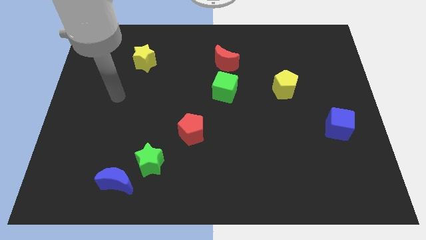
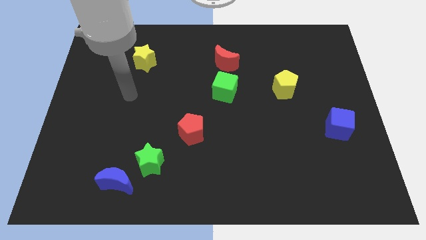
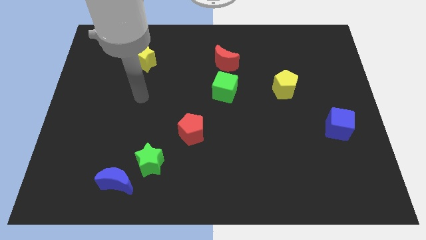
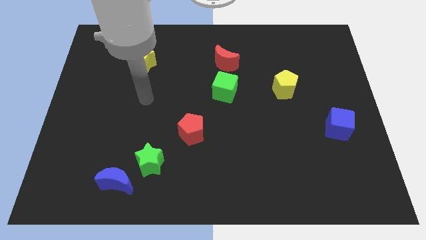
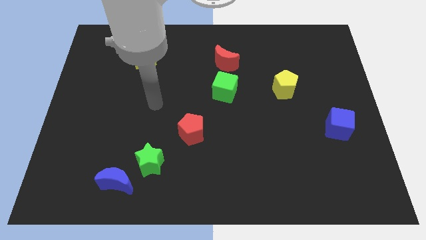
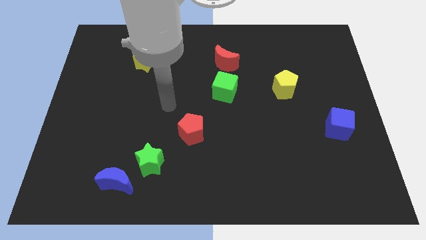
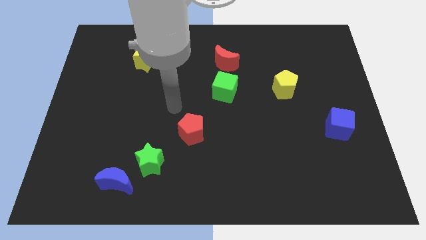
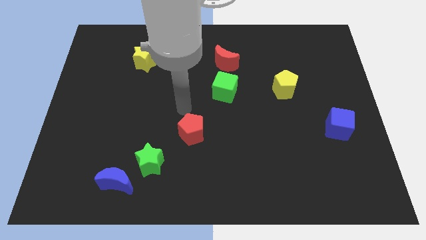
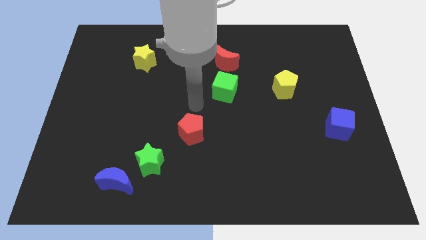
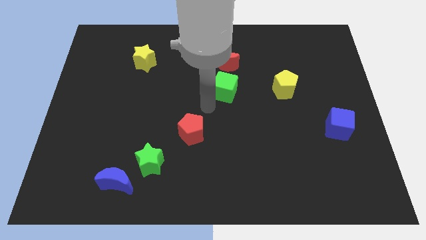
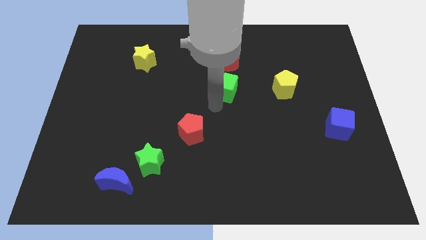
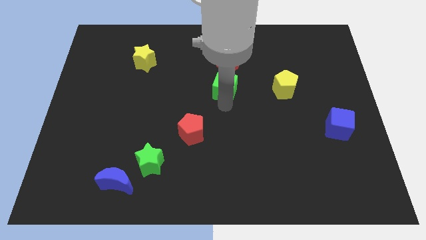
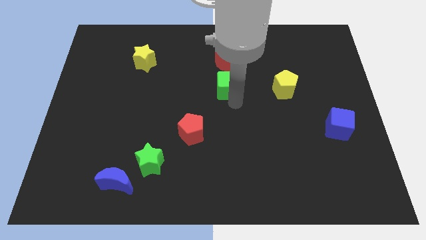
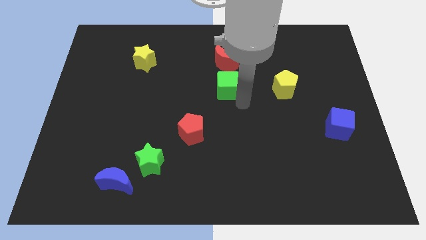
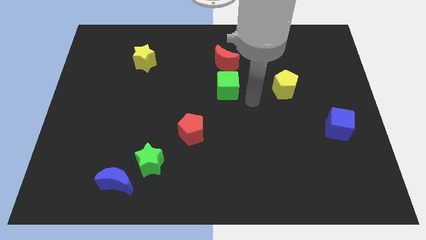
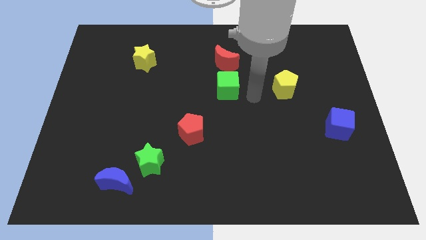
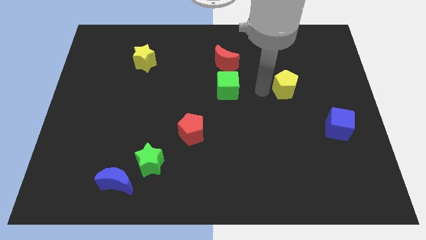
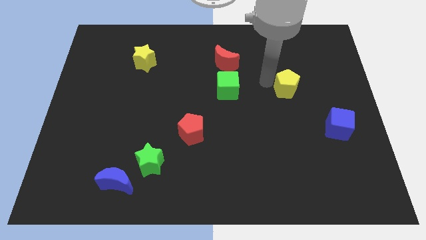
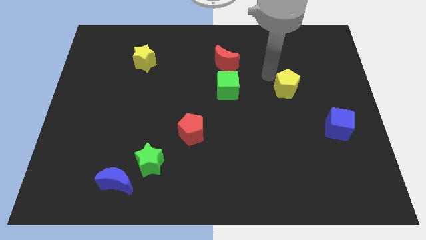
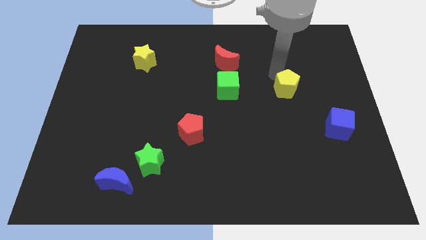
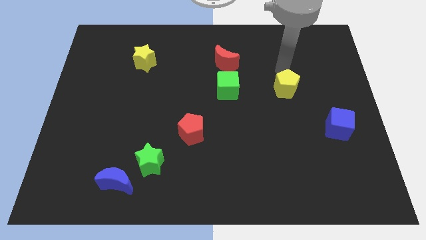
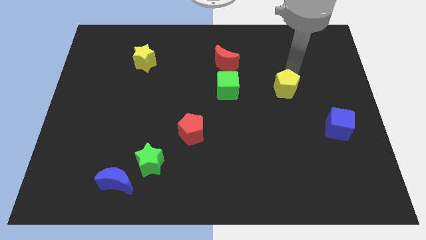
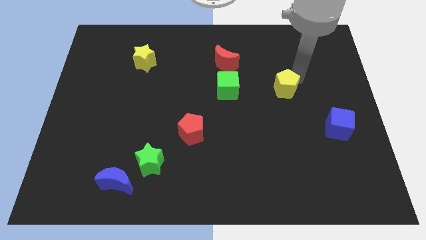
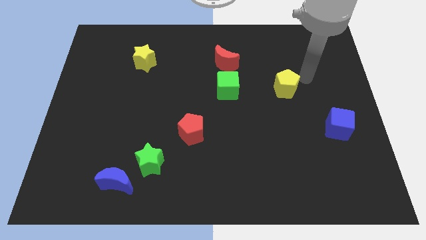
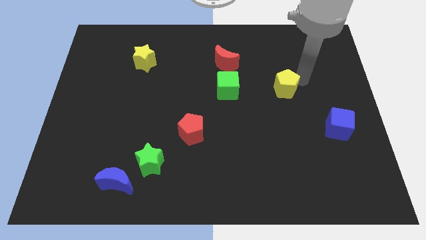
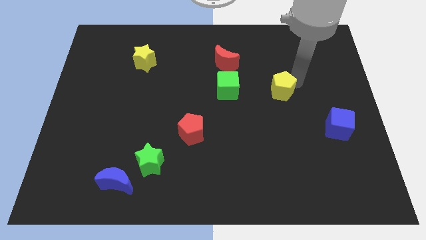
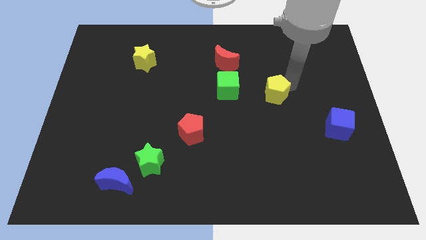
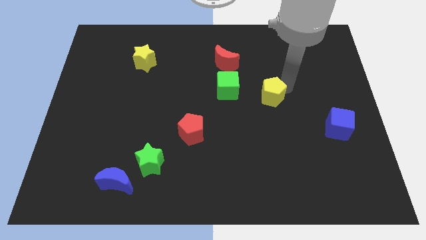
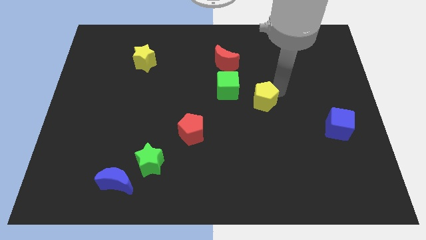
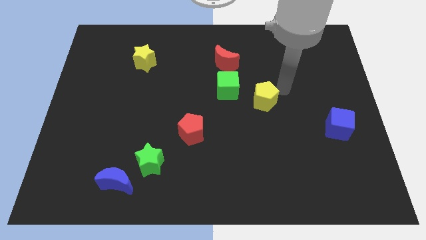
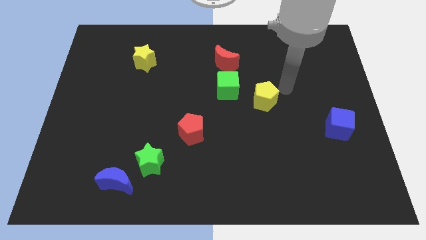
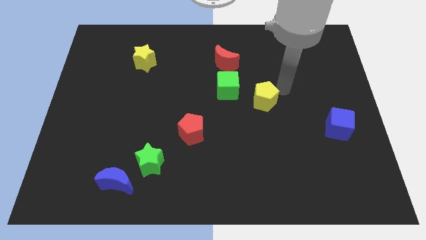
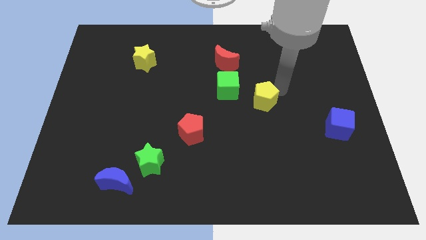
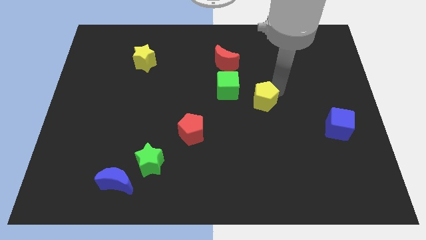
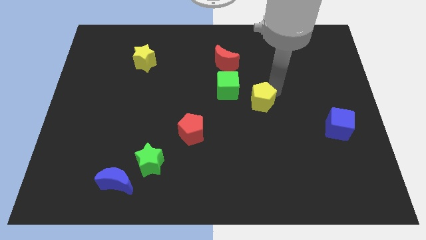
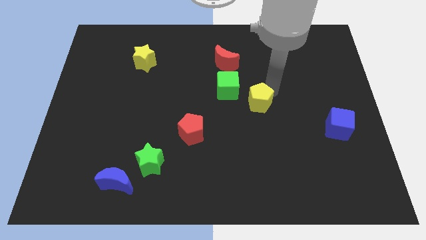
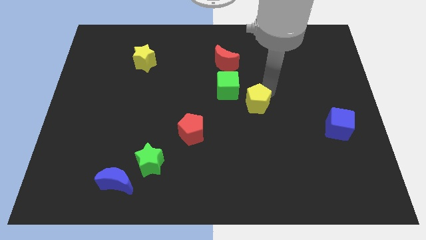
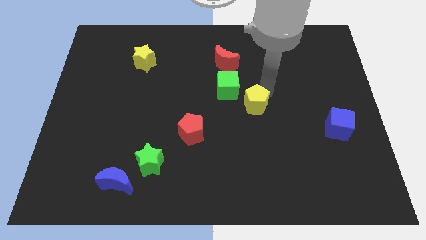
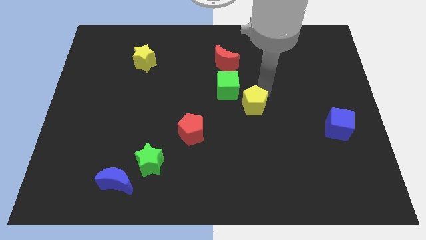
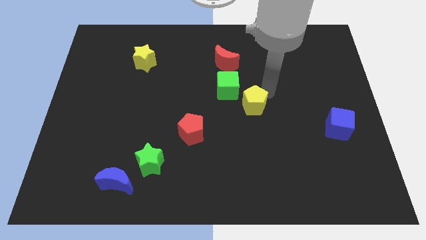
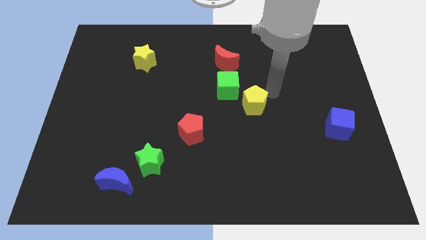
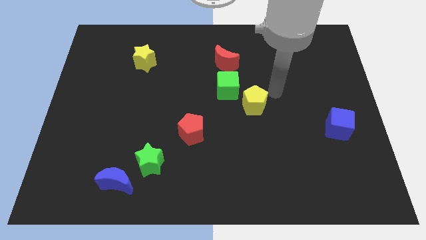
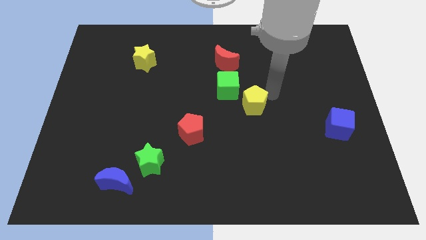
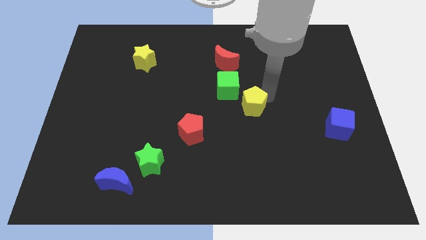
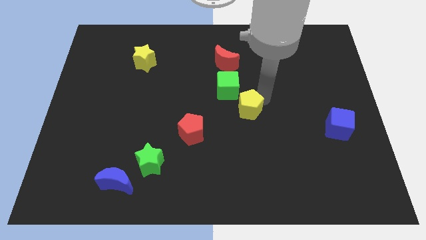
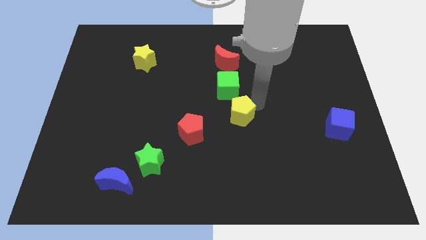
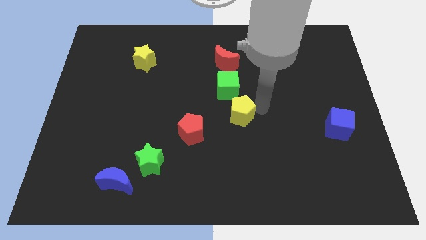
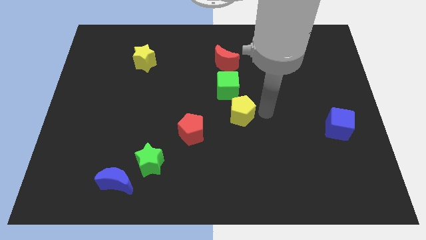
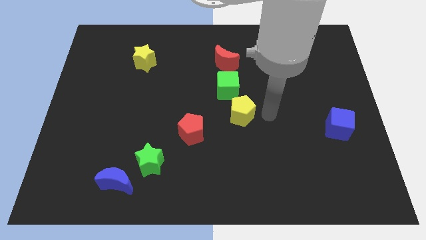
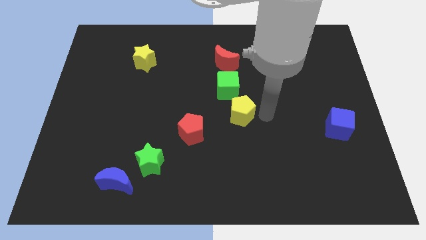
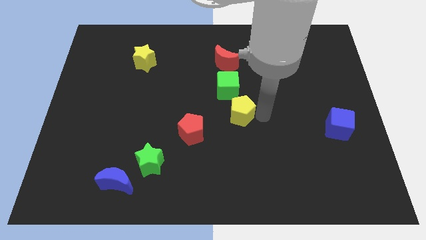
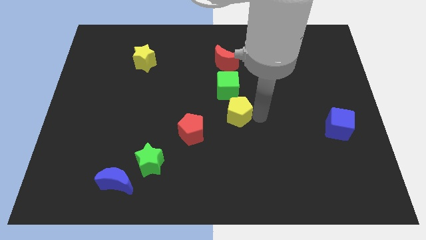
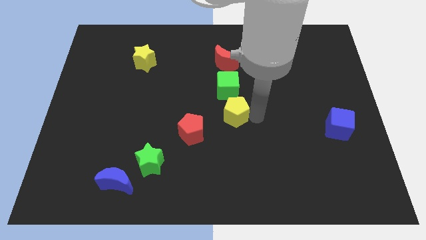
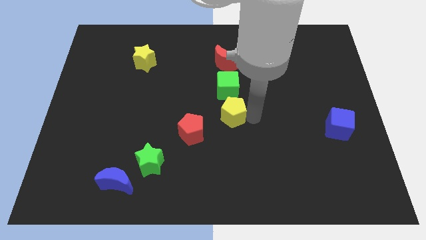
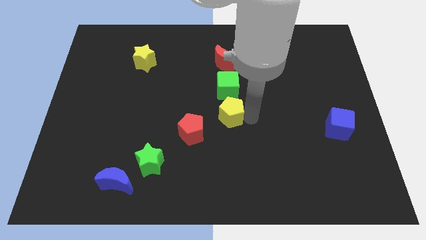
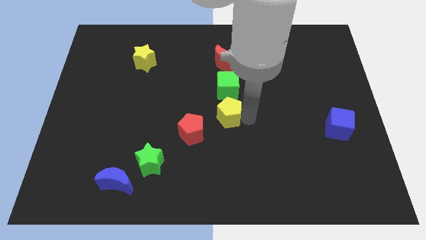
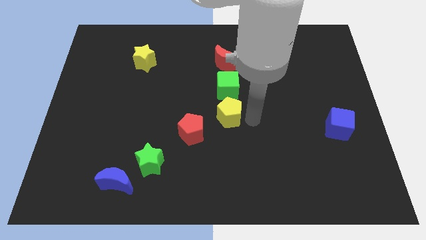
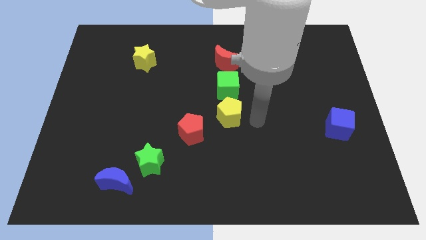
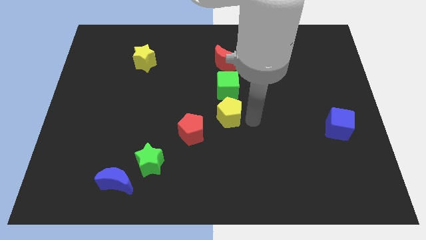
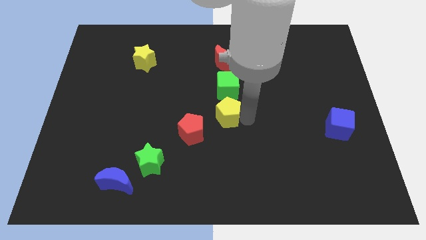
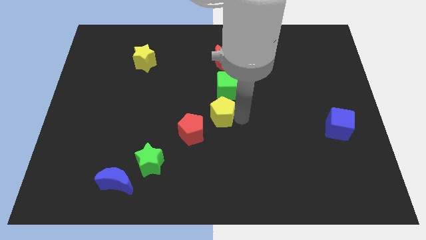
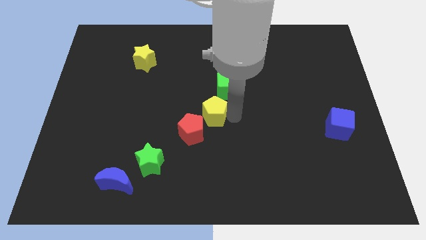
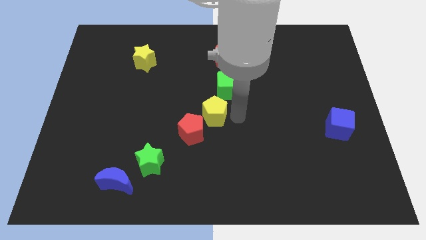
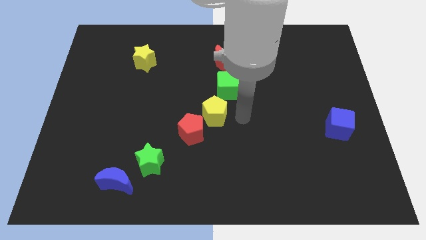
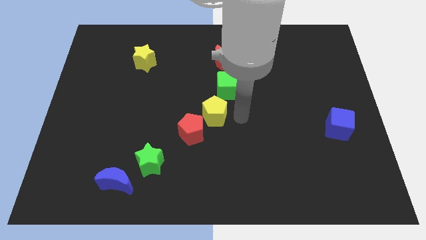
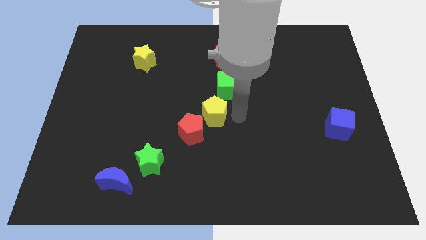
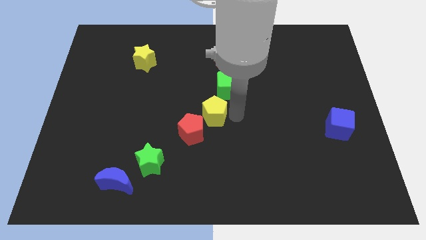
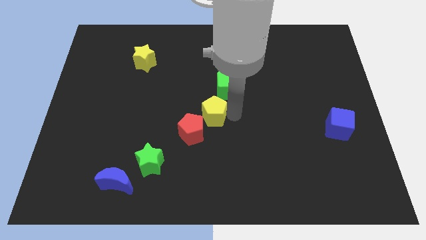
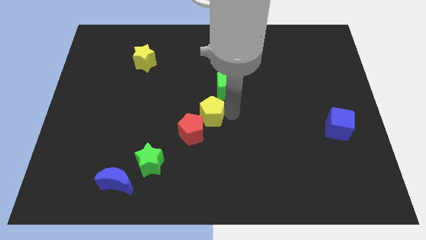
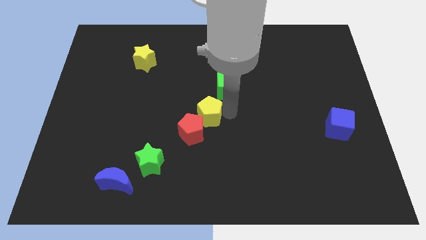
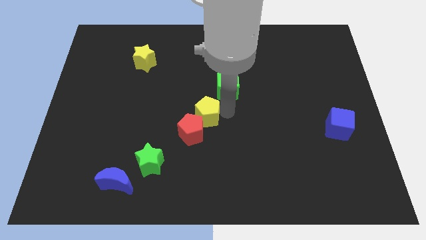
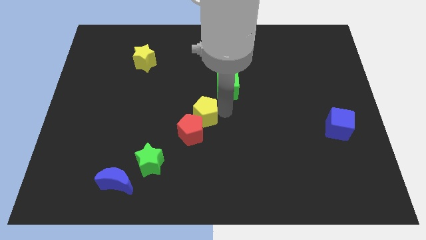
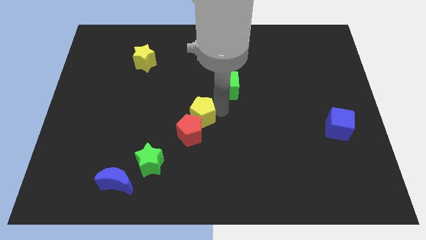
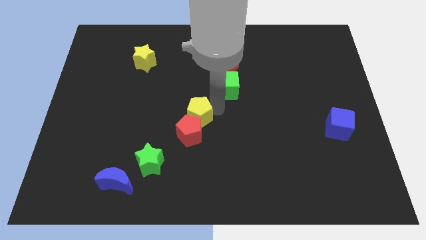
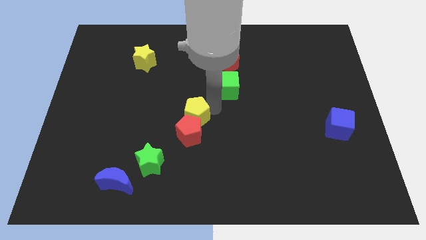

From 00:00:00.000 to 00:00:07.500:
put the yellow pentagon diagonally up and to the left of the red pentagon
